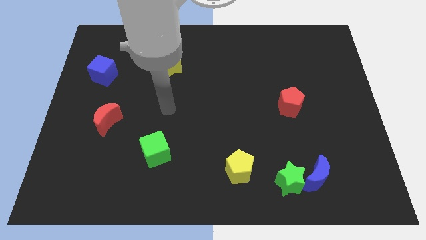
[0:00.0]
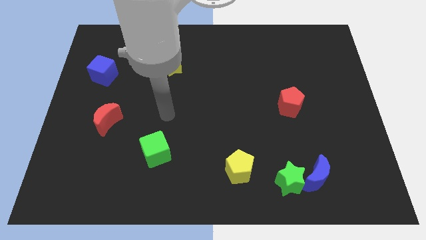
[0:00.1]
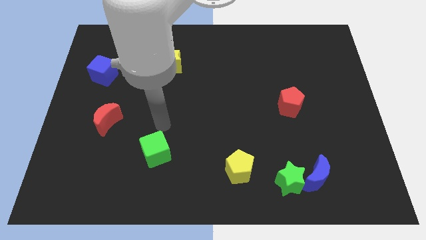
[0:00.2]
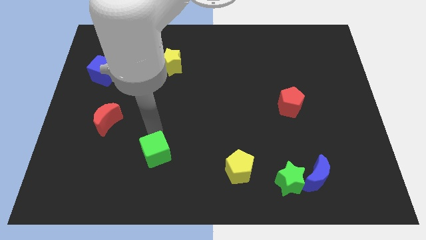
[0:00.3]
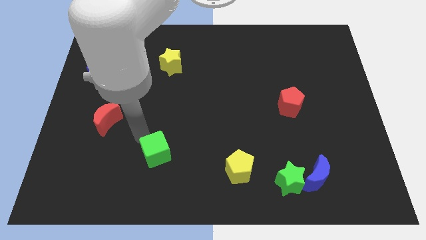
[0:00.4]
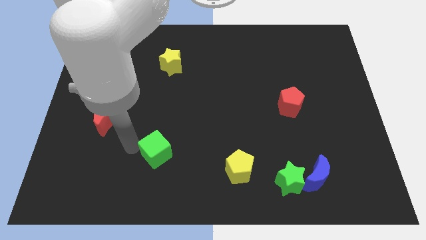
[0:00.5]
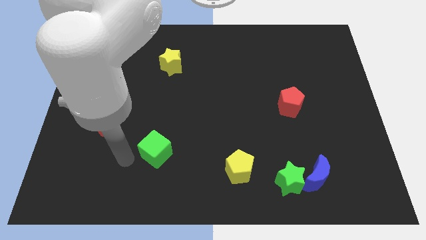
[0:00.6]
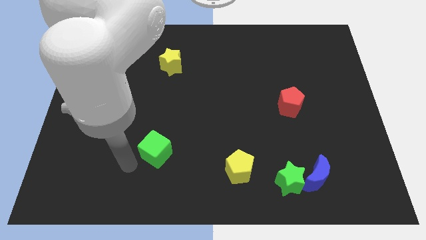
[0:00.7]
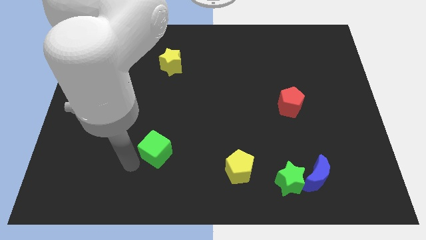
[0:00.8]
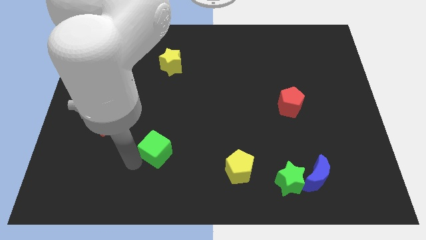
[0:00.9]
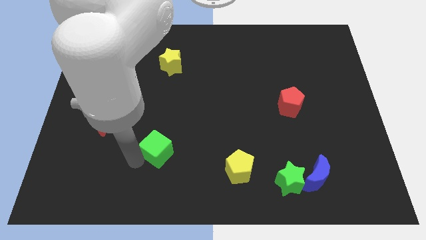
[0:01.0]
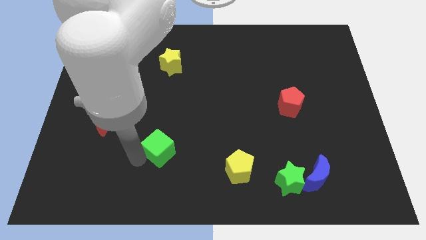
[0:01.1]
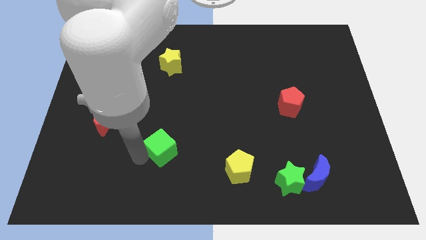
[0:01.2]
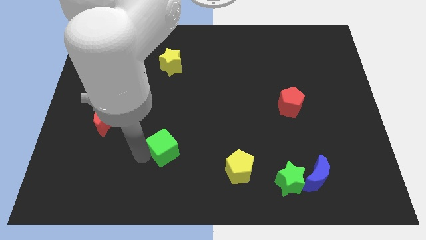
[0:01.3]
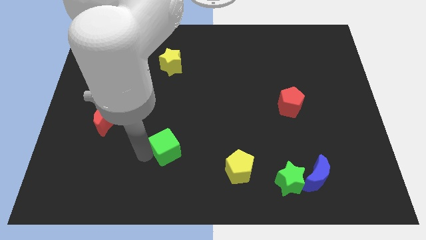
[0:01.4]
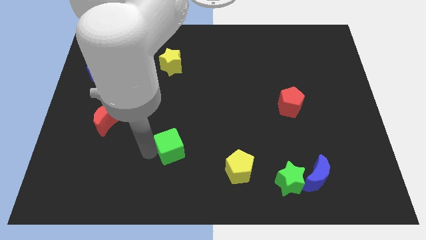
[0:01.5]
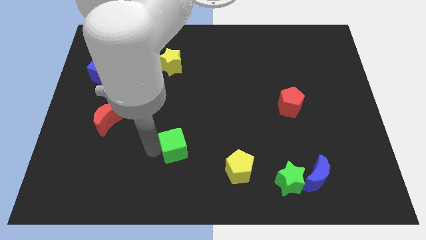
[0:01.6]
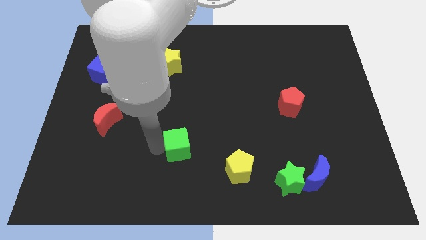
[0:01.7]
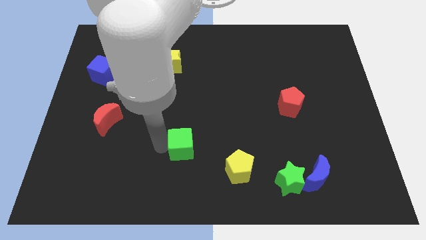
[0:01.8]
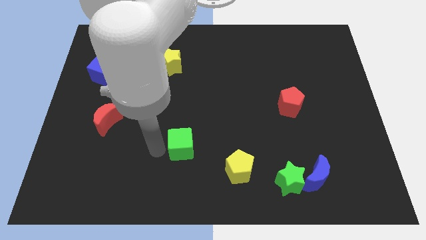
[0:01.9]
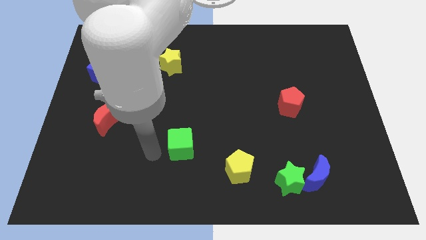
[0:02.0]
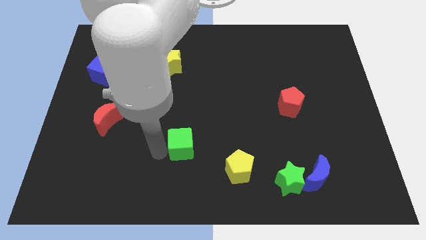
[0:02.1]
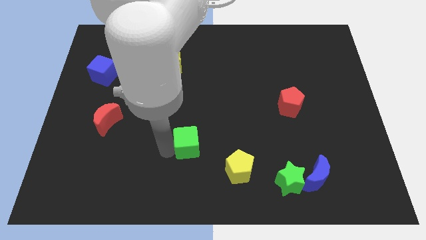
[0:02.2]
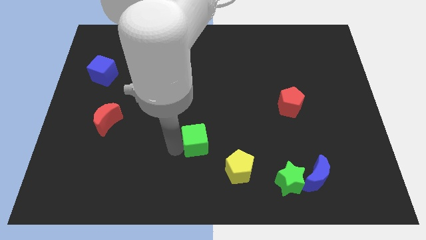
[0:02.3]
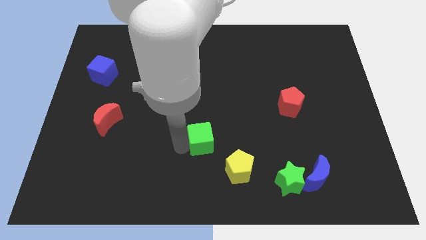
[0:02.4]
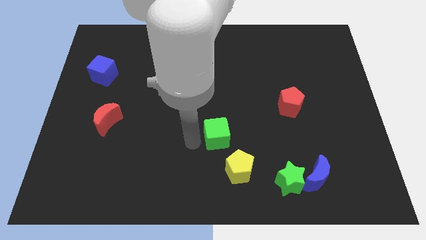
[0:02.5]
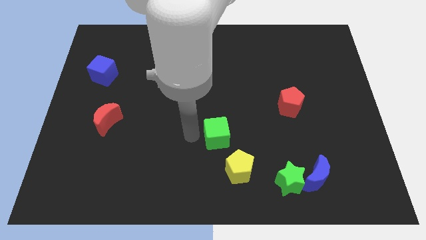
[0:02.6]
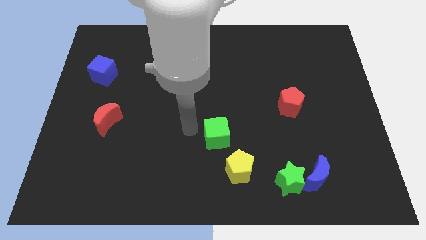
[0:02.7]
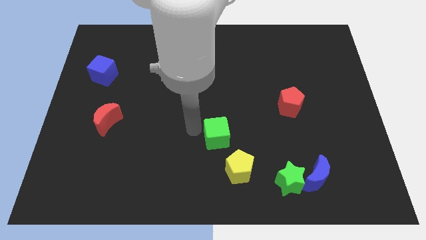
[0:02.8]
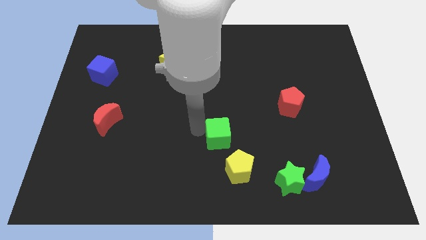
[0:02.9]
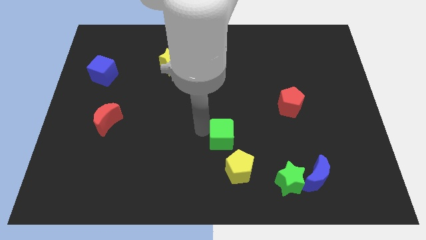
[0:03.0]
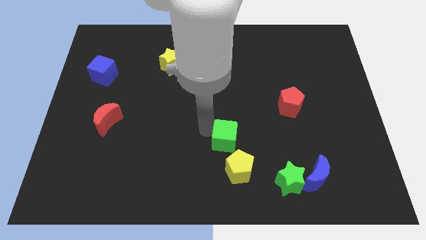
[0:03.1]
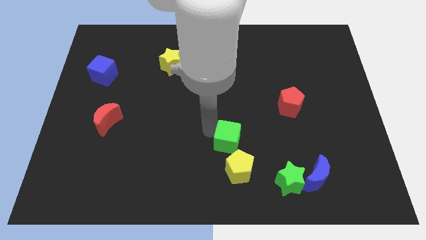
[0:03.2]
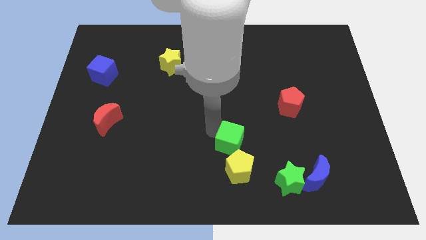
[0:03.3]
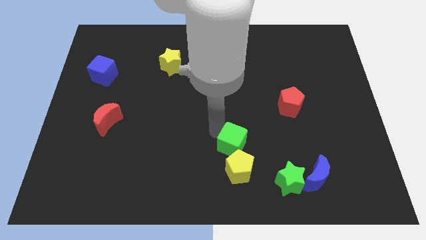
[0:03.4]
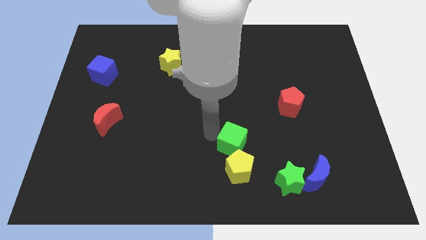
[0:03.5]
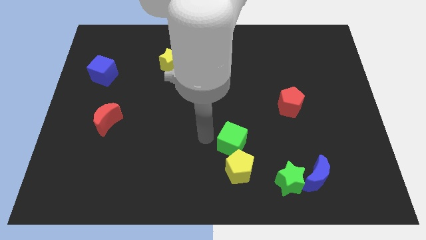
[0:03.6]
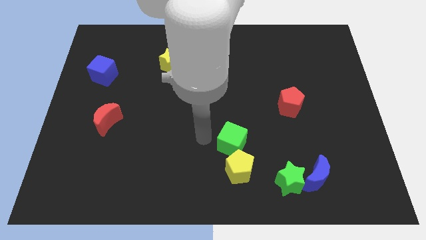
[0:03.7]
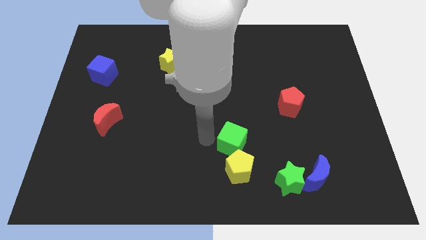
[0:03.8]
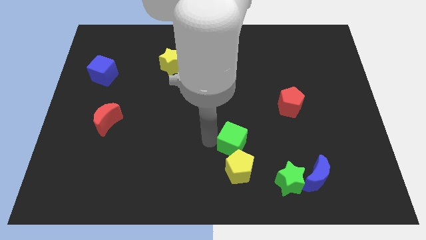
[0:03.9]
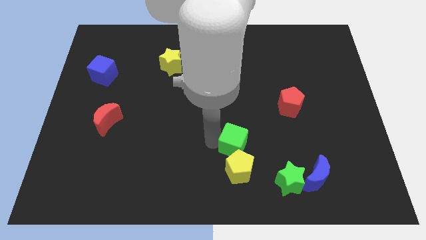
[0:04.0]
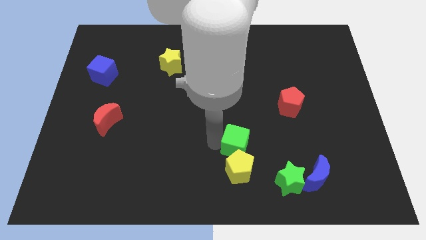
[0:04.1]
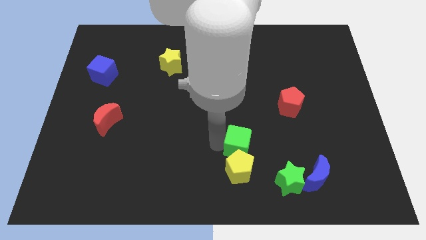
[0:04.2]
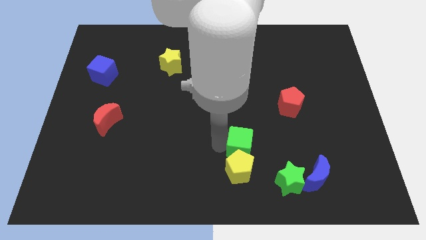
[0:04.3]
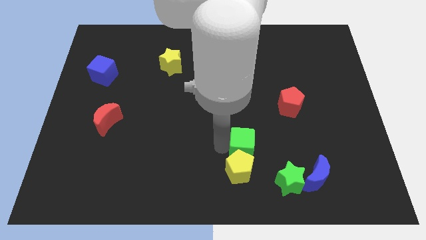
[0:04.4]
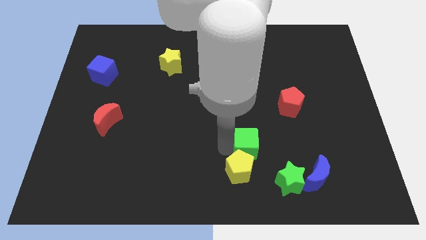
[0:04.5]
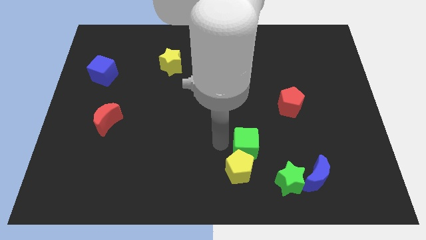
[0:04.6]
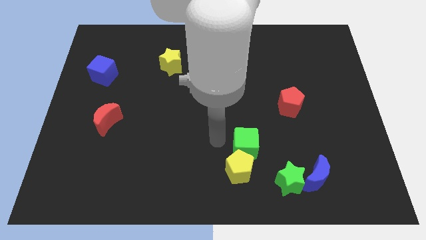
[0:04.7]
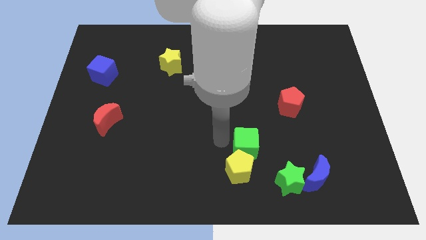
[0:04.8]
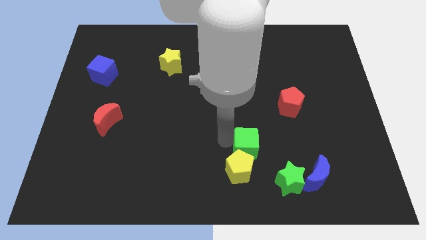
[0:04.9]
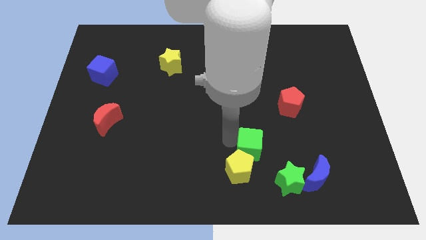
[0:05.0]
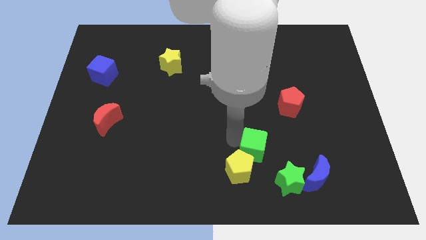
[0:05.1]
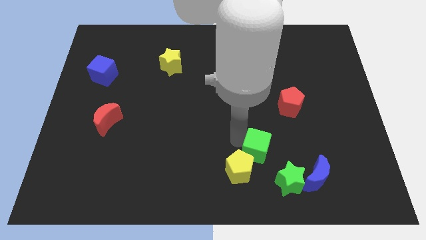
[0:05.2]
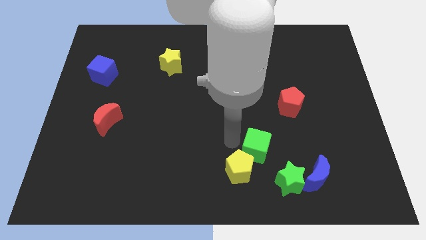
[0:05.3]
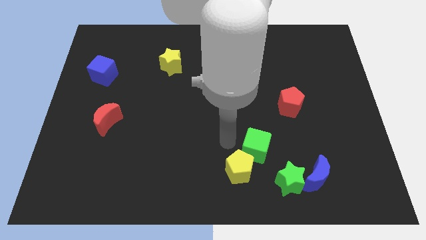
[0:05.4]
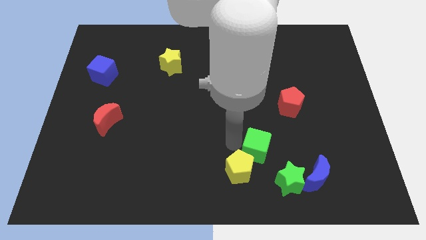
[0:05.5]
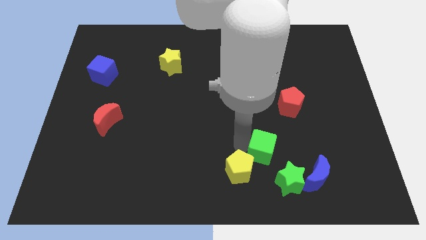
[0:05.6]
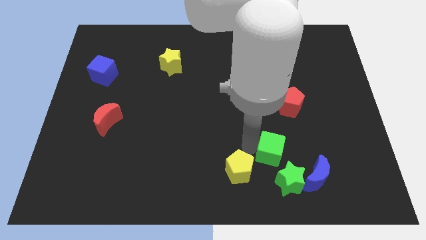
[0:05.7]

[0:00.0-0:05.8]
push the green cube diagonally up and to the left of the blue moon

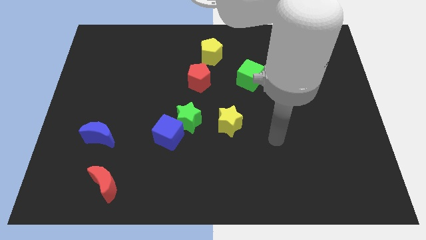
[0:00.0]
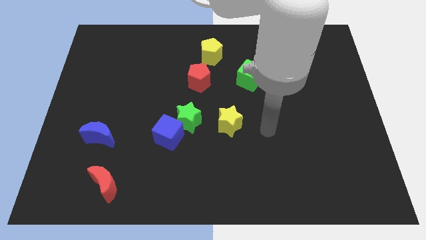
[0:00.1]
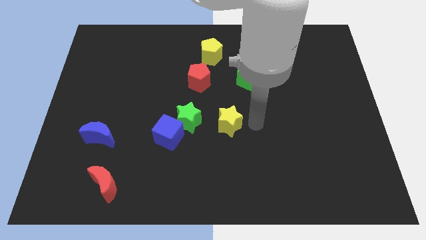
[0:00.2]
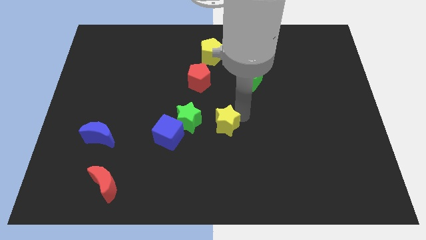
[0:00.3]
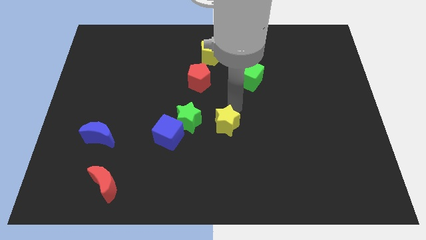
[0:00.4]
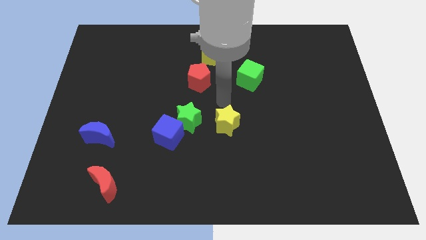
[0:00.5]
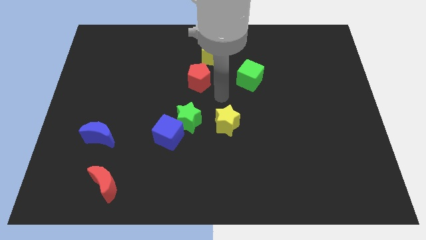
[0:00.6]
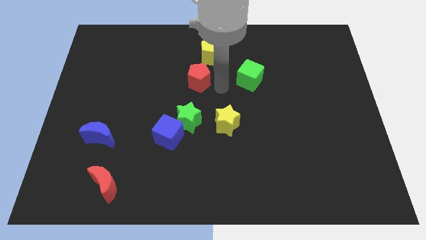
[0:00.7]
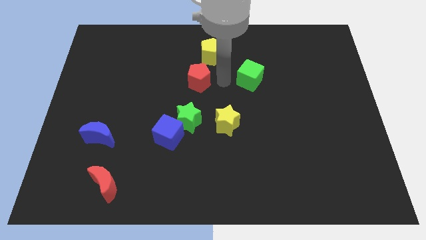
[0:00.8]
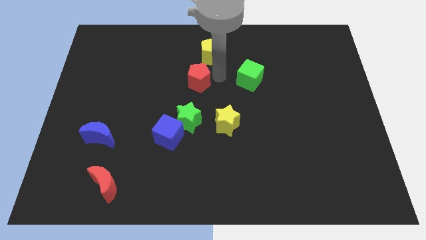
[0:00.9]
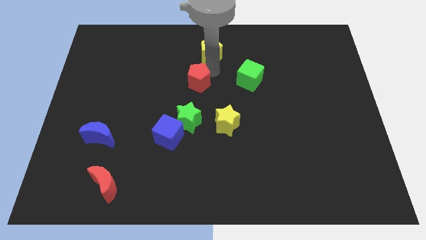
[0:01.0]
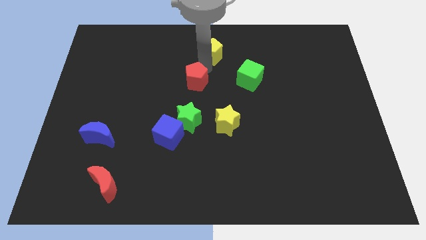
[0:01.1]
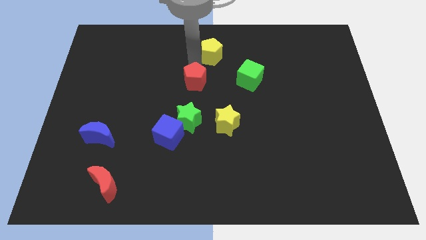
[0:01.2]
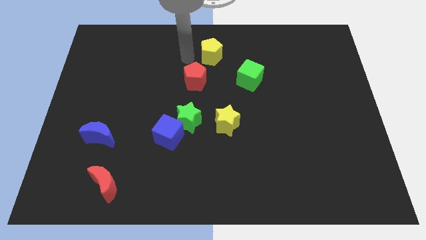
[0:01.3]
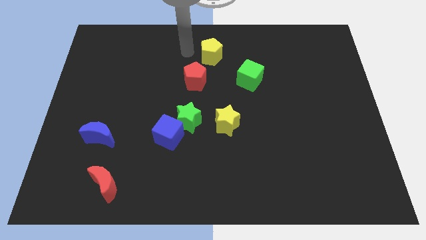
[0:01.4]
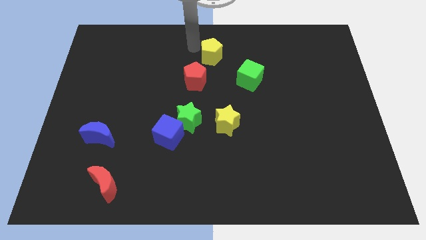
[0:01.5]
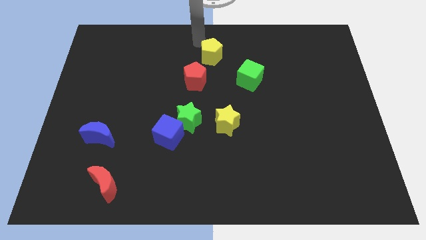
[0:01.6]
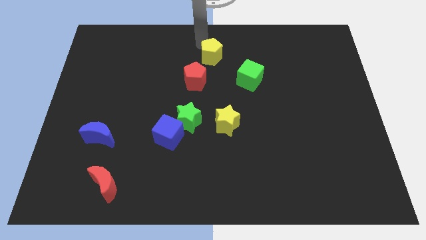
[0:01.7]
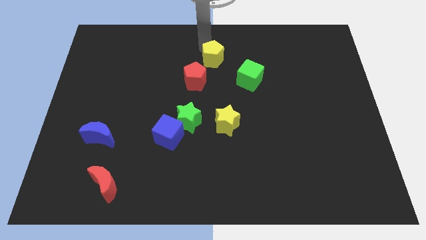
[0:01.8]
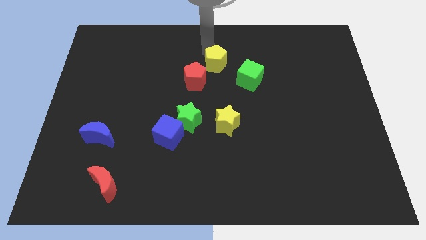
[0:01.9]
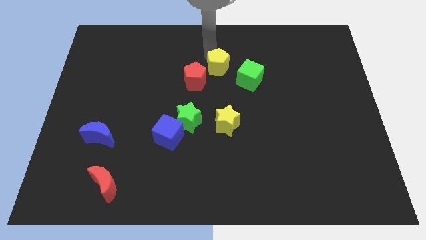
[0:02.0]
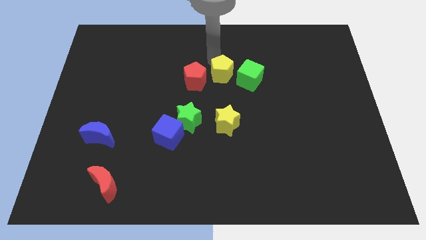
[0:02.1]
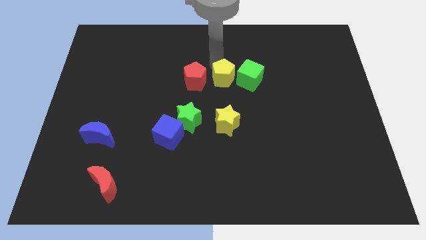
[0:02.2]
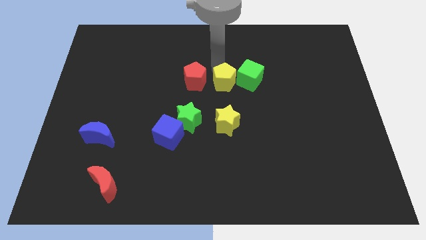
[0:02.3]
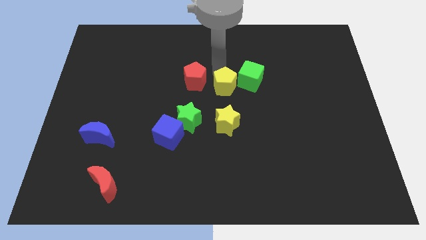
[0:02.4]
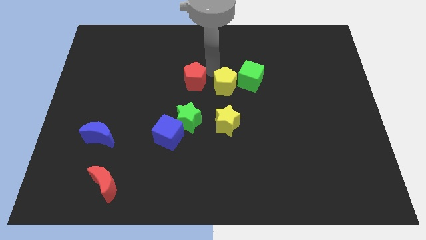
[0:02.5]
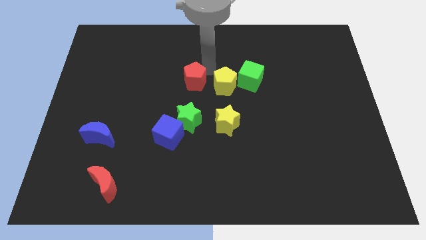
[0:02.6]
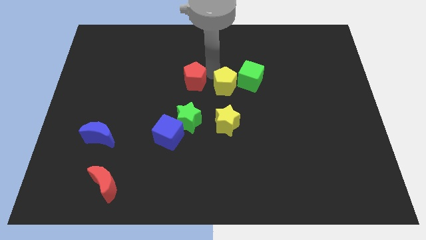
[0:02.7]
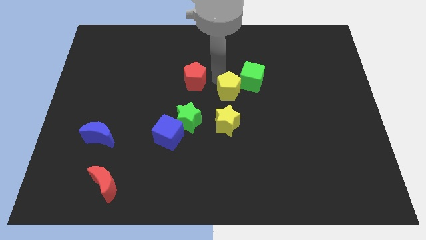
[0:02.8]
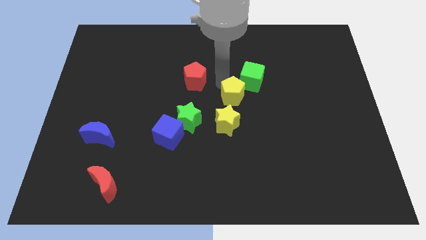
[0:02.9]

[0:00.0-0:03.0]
slide the yellow pentagon to the top right side of the yellow star
